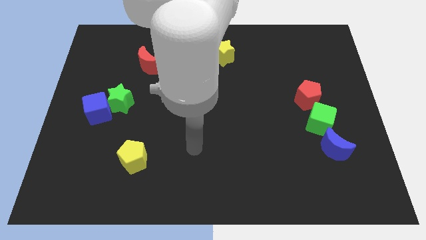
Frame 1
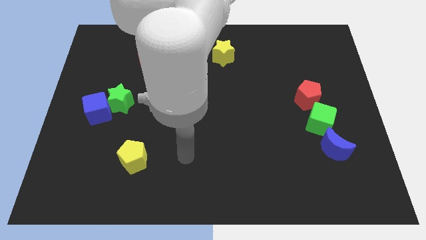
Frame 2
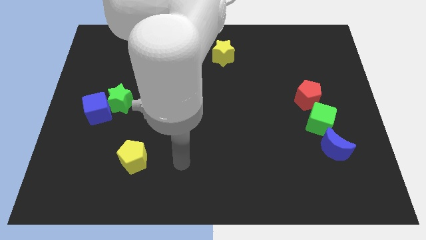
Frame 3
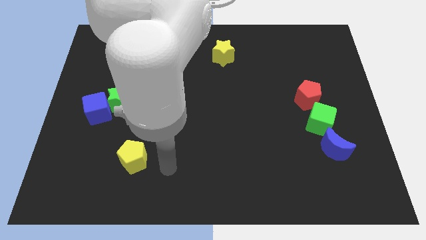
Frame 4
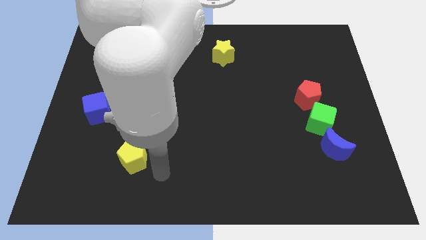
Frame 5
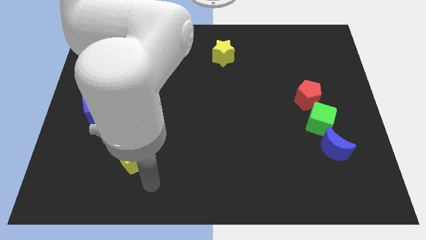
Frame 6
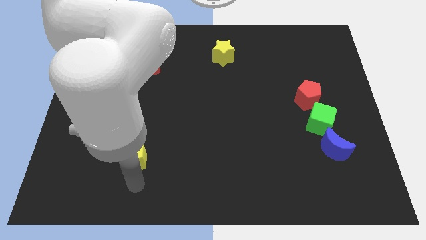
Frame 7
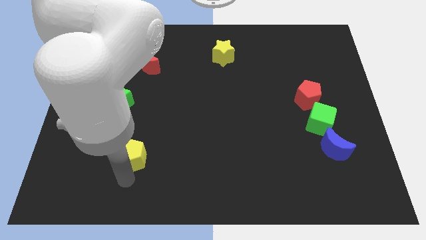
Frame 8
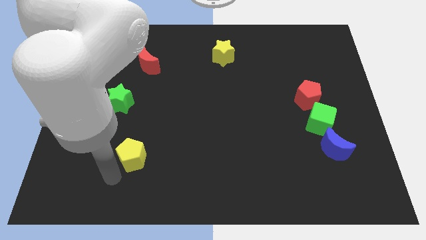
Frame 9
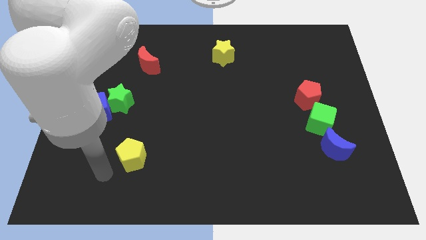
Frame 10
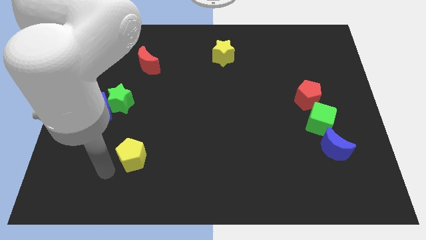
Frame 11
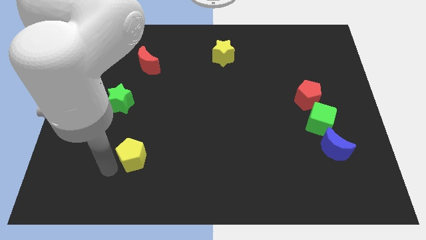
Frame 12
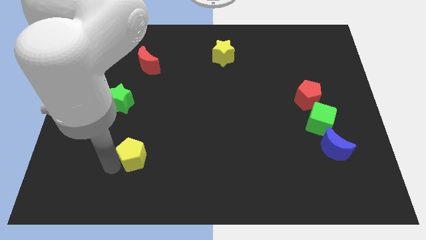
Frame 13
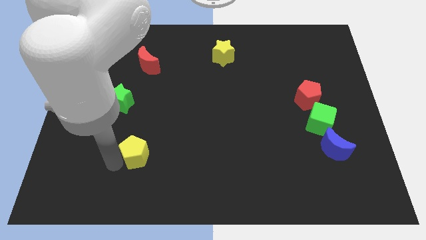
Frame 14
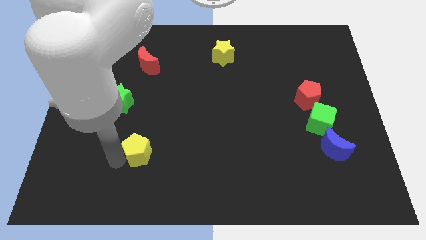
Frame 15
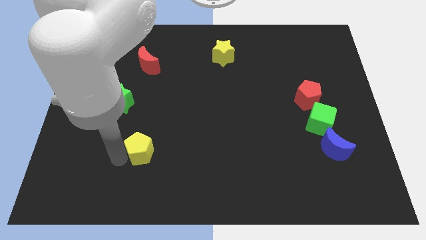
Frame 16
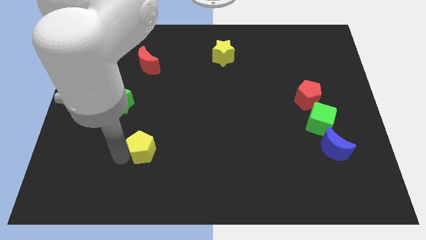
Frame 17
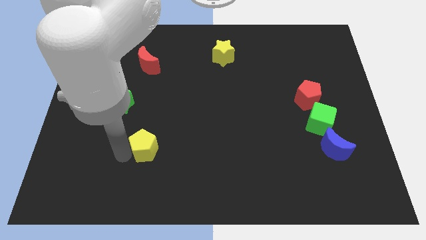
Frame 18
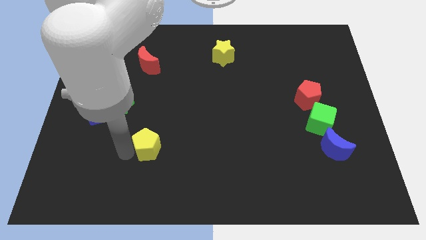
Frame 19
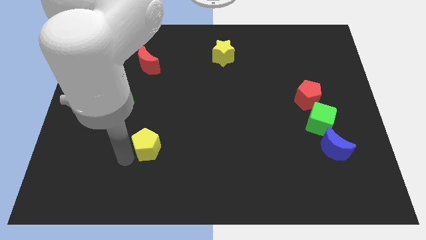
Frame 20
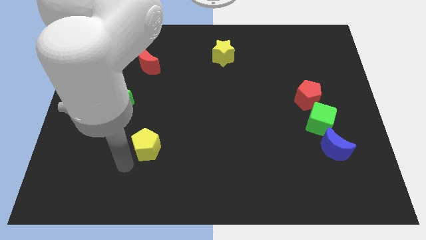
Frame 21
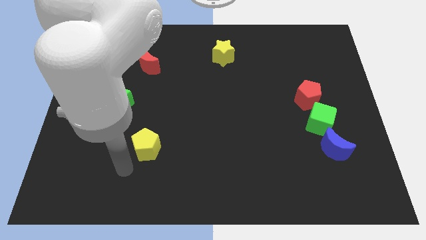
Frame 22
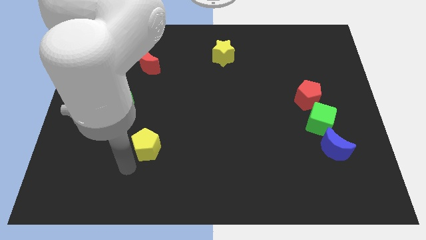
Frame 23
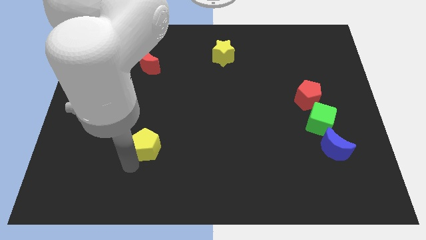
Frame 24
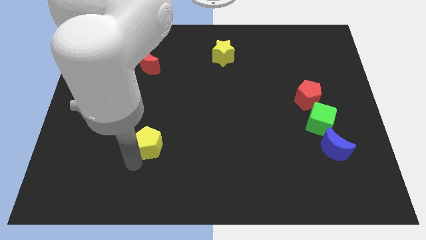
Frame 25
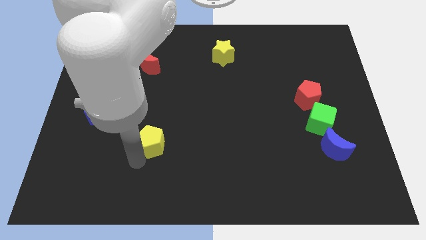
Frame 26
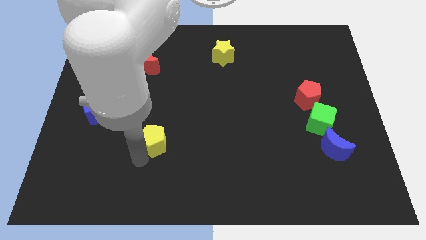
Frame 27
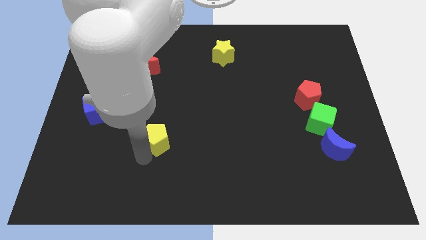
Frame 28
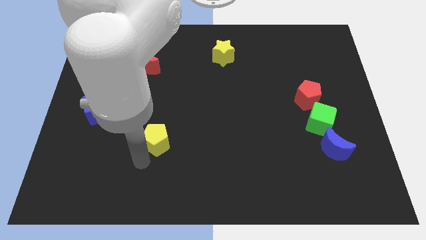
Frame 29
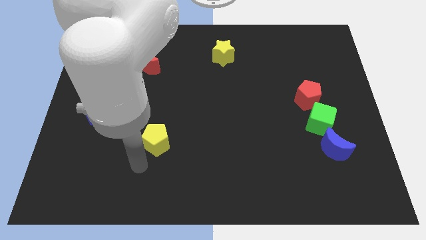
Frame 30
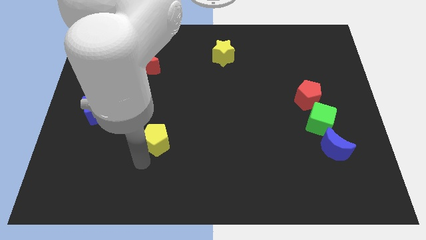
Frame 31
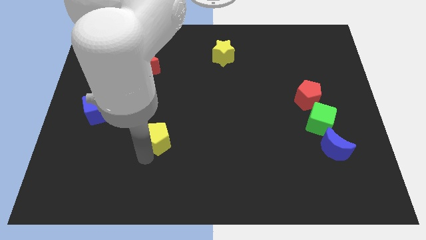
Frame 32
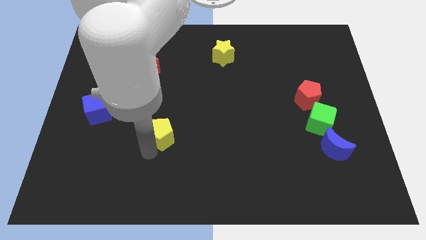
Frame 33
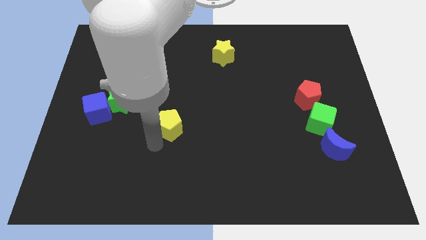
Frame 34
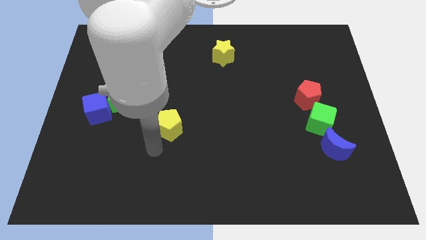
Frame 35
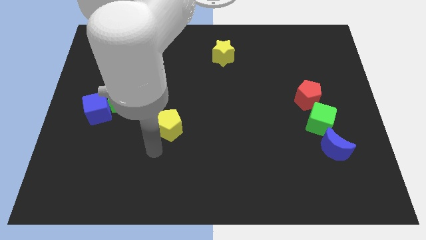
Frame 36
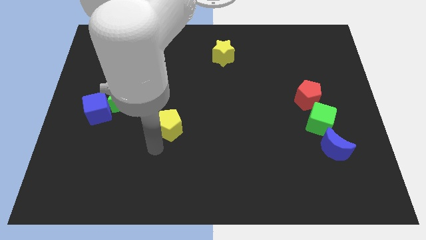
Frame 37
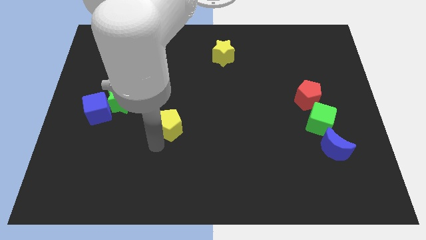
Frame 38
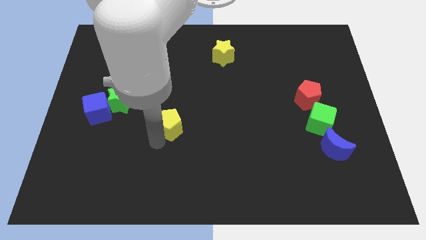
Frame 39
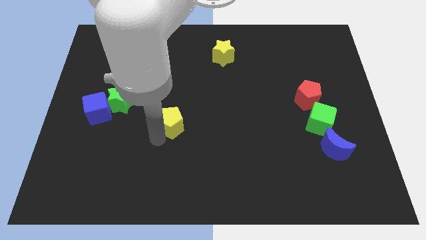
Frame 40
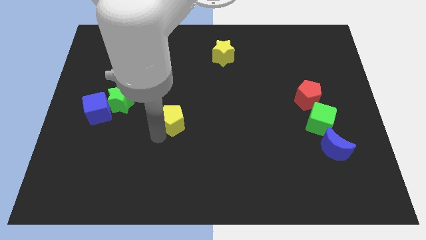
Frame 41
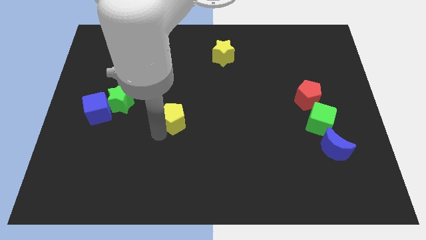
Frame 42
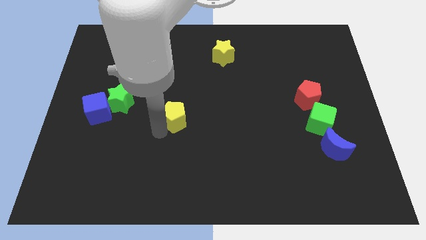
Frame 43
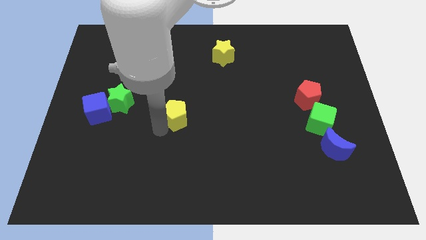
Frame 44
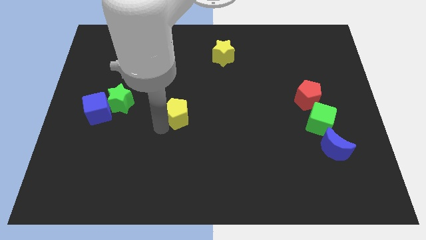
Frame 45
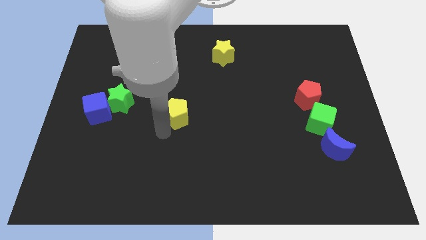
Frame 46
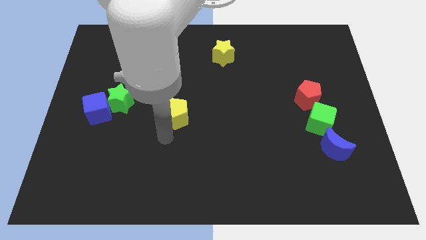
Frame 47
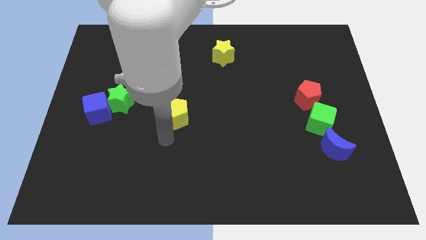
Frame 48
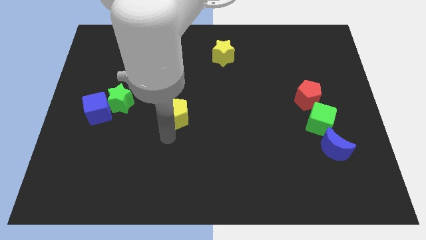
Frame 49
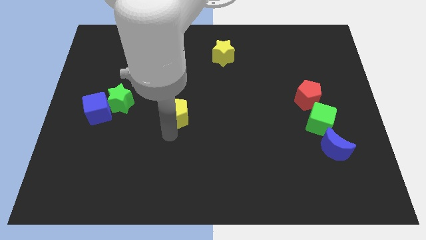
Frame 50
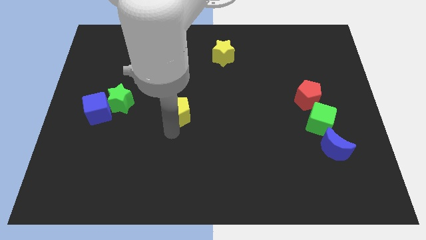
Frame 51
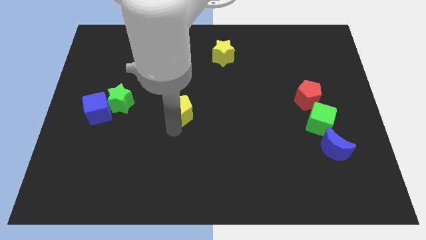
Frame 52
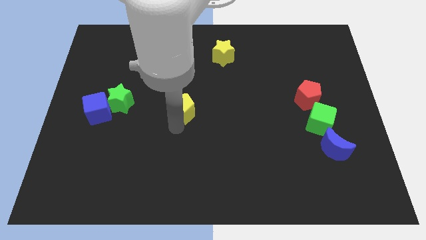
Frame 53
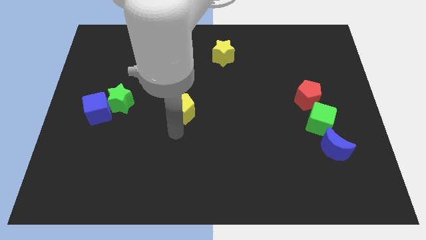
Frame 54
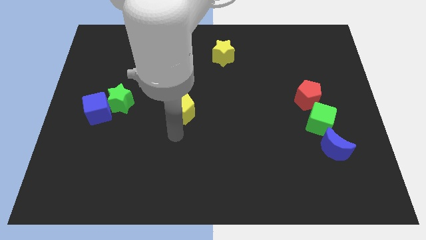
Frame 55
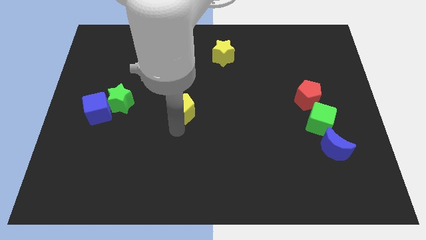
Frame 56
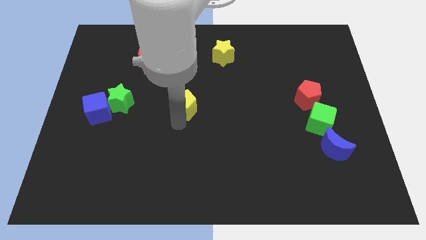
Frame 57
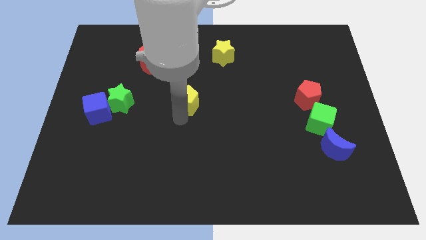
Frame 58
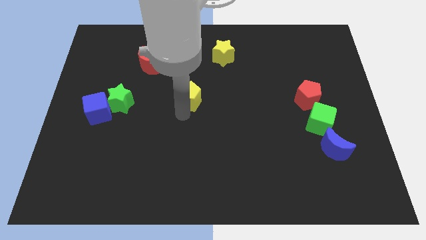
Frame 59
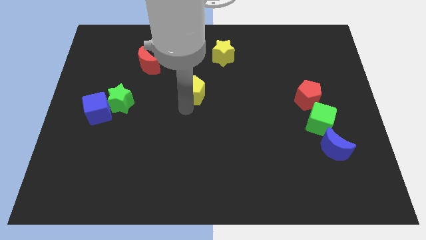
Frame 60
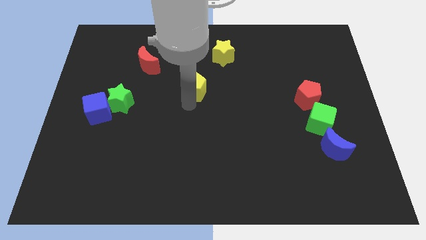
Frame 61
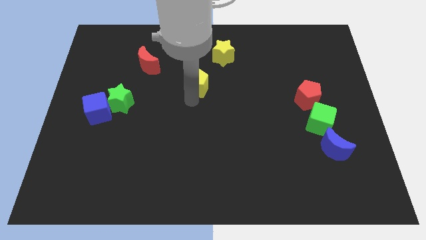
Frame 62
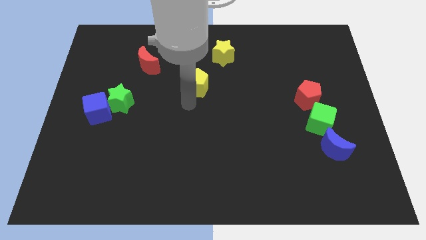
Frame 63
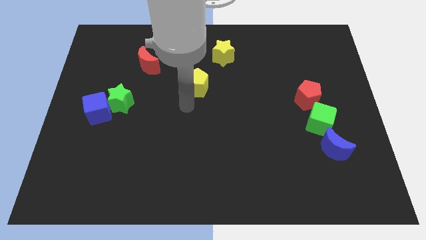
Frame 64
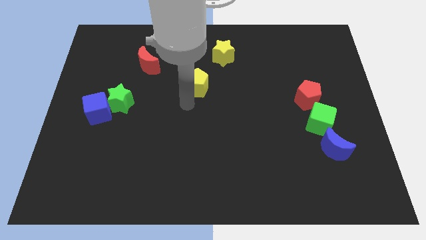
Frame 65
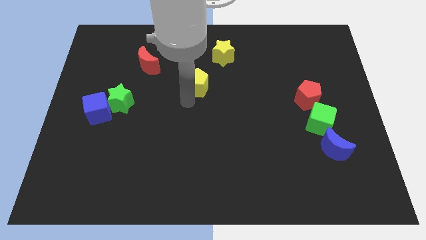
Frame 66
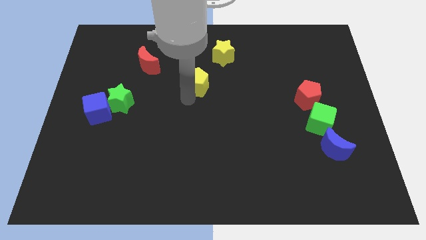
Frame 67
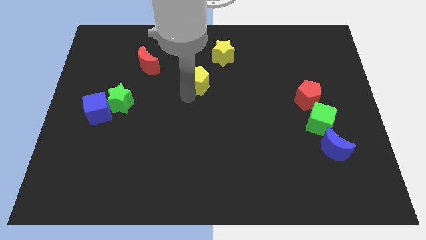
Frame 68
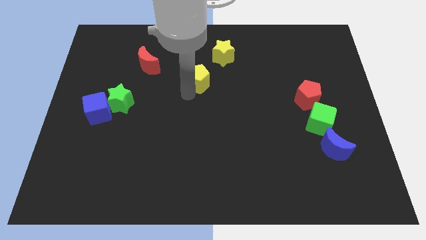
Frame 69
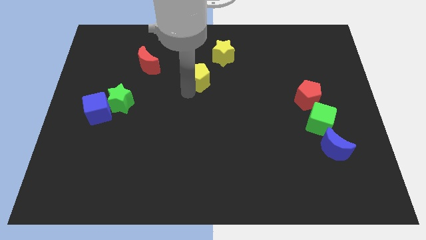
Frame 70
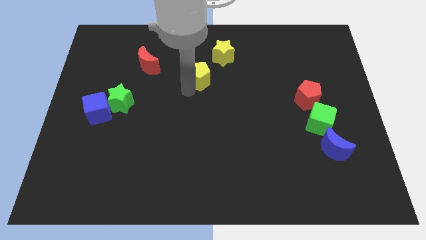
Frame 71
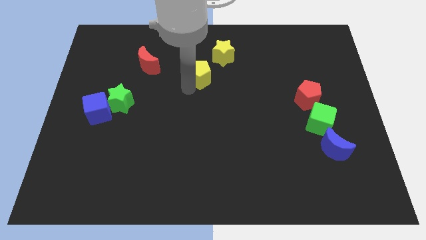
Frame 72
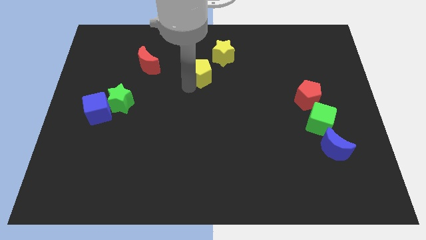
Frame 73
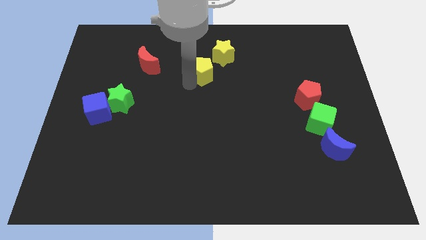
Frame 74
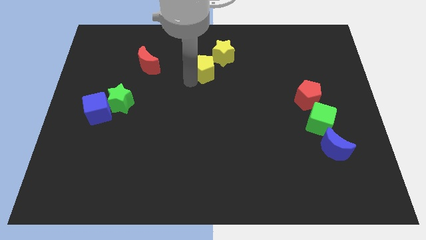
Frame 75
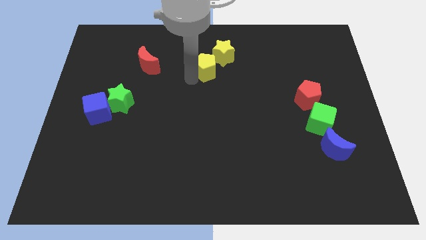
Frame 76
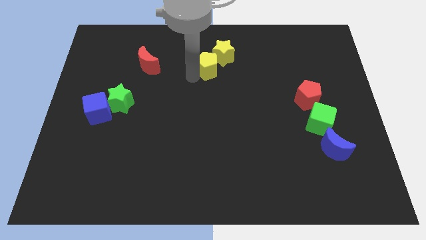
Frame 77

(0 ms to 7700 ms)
move the yellow pentagon close to the yellow star
